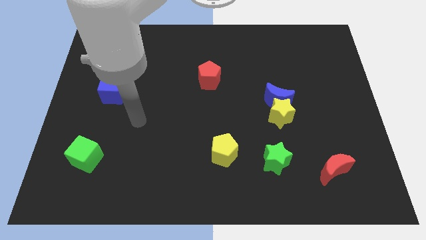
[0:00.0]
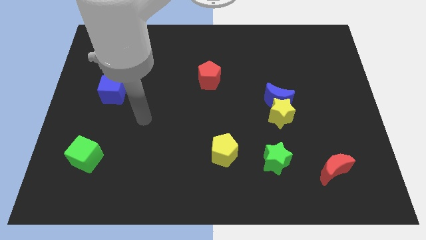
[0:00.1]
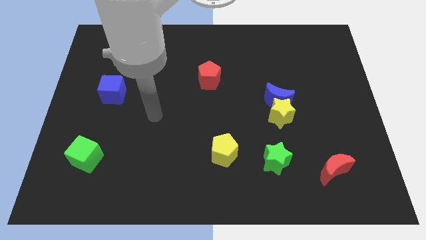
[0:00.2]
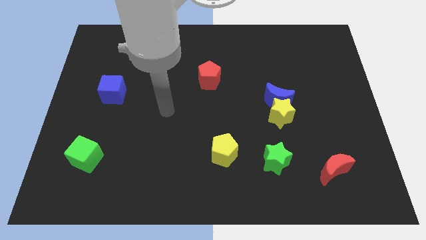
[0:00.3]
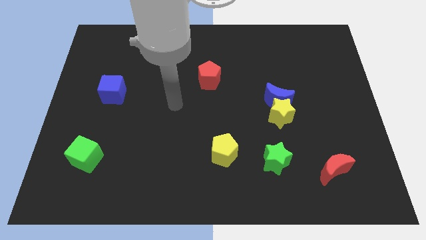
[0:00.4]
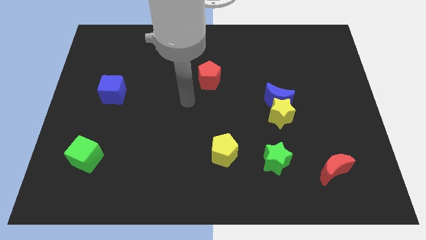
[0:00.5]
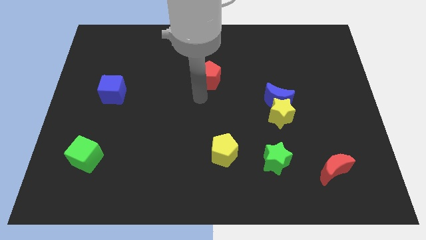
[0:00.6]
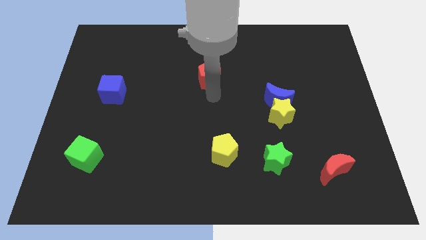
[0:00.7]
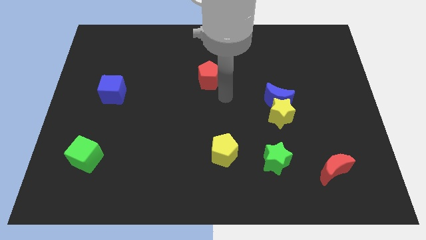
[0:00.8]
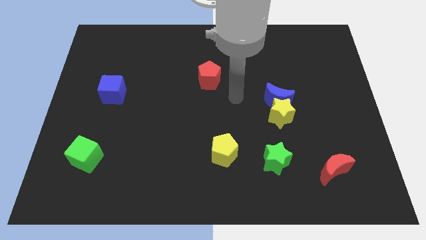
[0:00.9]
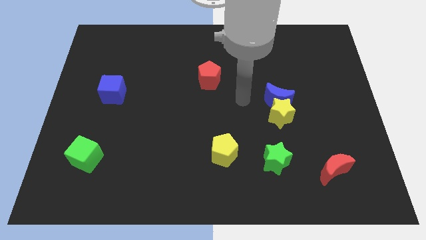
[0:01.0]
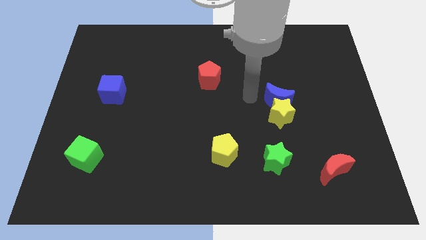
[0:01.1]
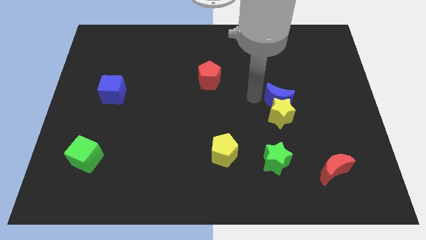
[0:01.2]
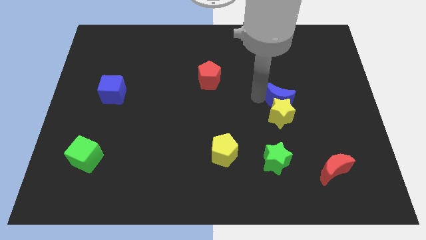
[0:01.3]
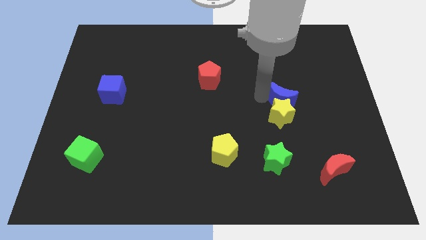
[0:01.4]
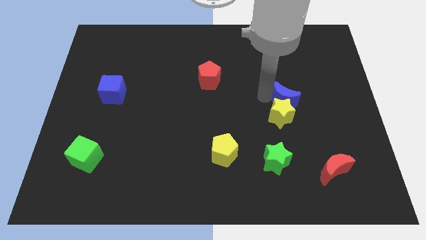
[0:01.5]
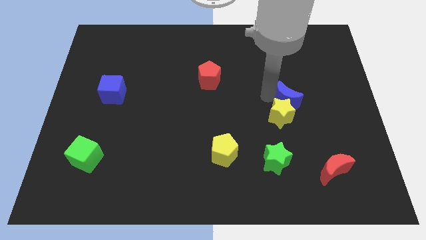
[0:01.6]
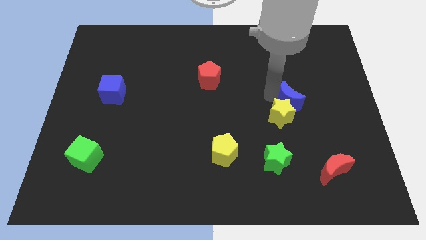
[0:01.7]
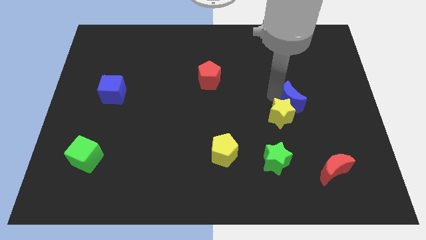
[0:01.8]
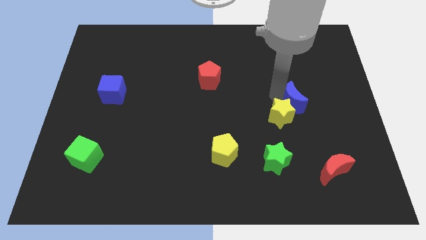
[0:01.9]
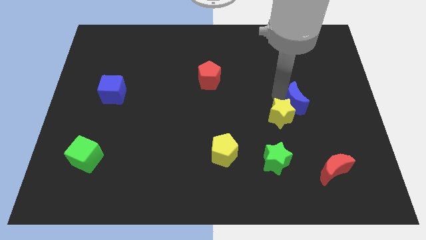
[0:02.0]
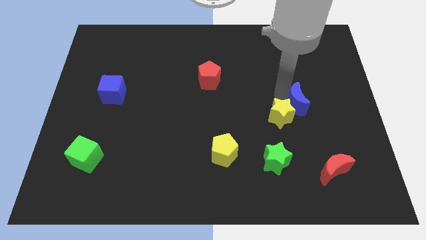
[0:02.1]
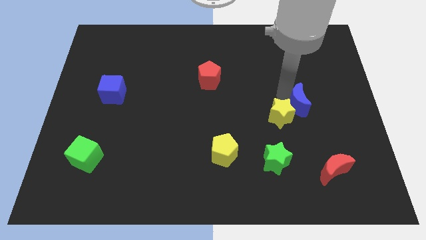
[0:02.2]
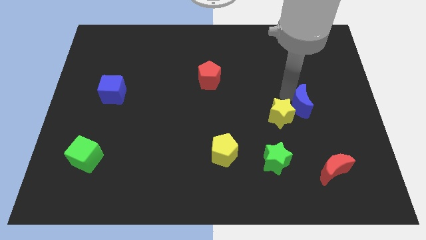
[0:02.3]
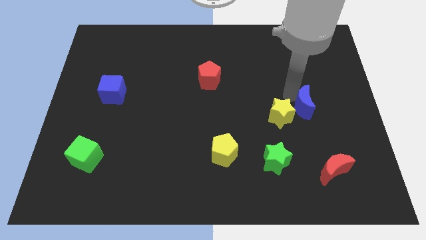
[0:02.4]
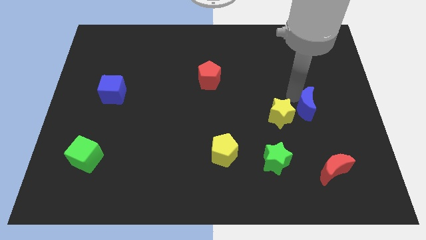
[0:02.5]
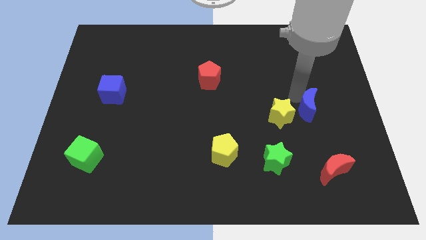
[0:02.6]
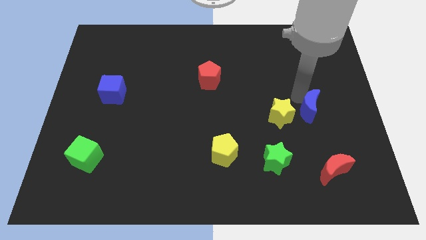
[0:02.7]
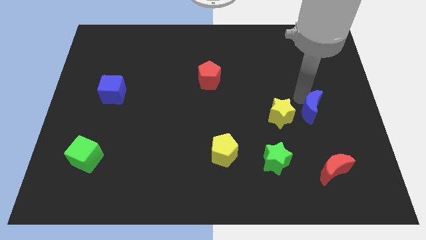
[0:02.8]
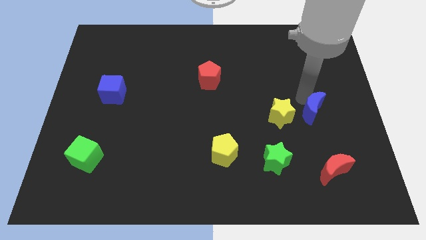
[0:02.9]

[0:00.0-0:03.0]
slightly slide the blue moon diagonally down and right

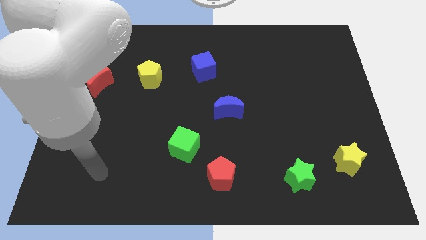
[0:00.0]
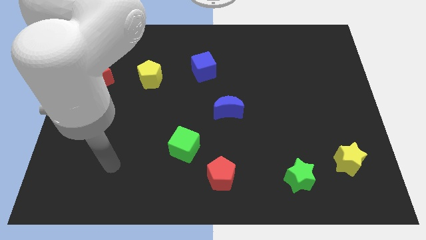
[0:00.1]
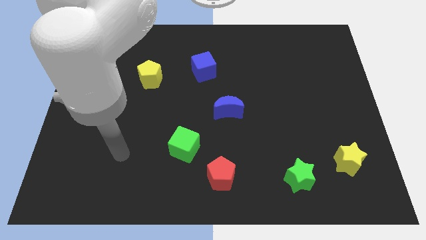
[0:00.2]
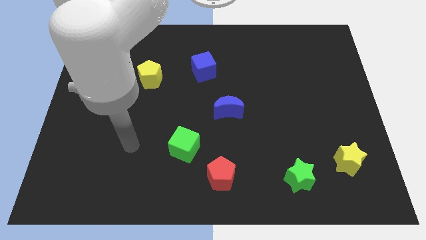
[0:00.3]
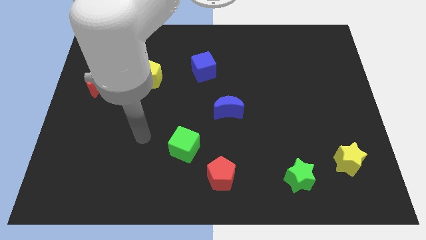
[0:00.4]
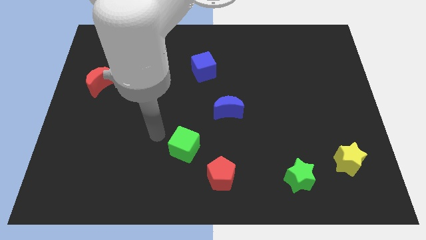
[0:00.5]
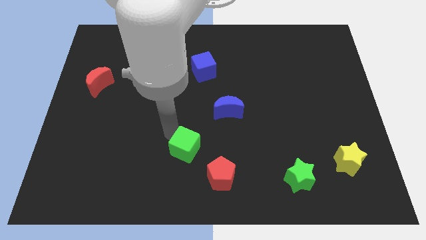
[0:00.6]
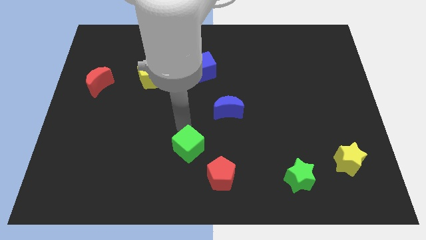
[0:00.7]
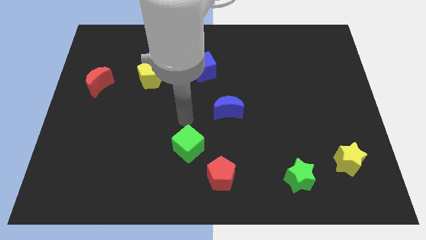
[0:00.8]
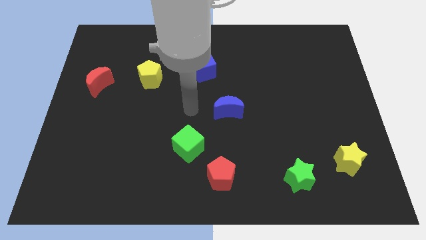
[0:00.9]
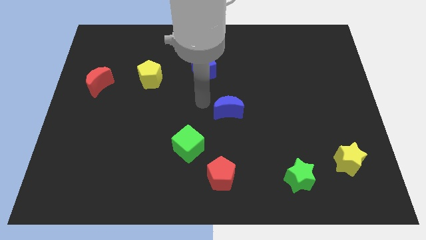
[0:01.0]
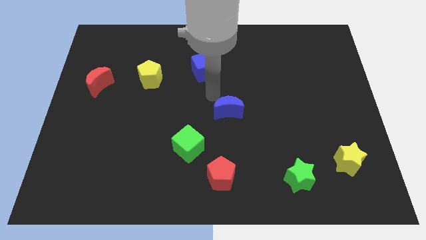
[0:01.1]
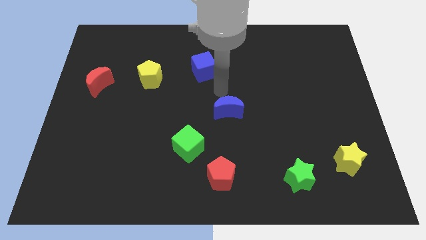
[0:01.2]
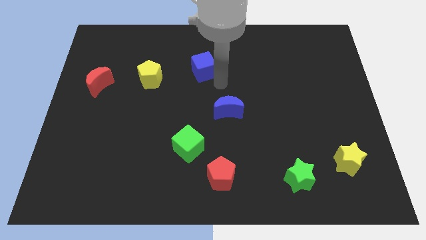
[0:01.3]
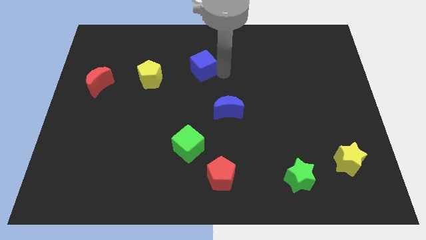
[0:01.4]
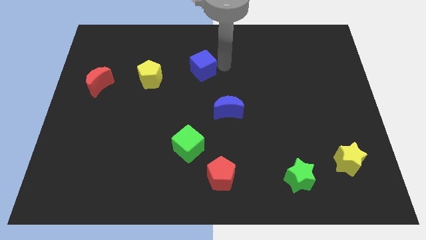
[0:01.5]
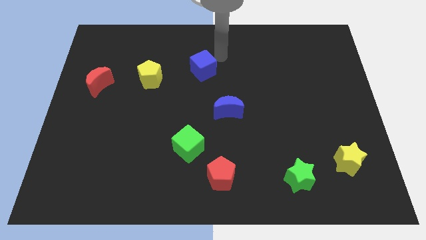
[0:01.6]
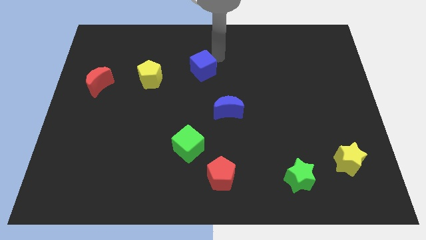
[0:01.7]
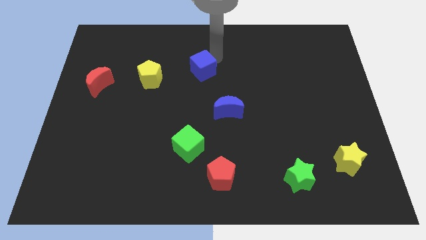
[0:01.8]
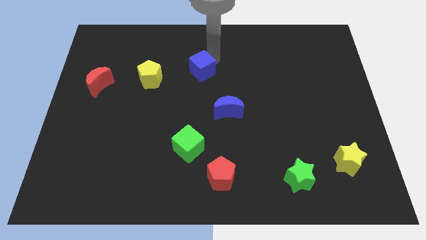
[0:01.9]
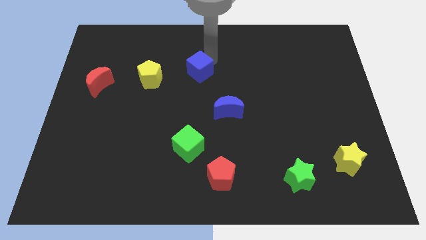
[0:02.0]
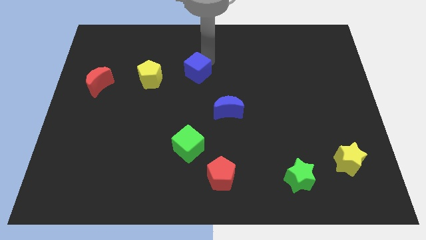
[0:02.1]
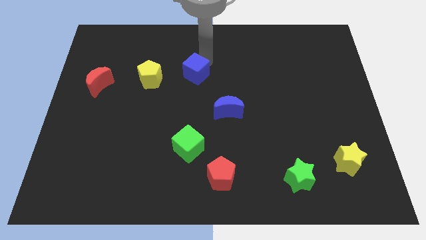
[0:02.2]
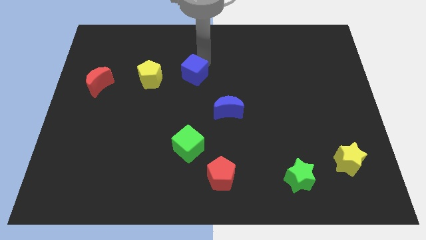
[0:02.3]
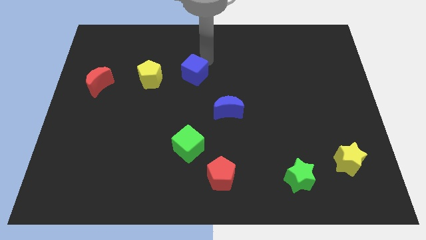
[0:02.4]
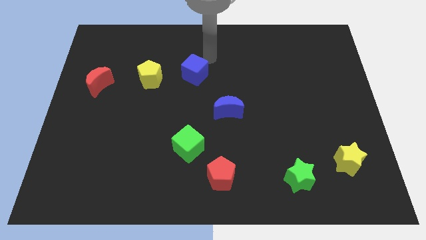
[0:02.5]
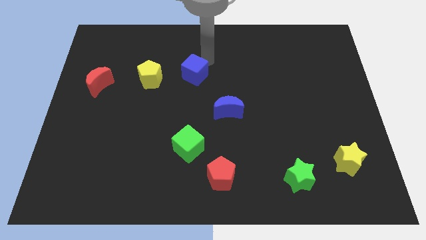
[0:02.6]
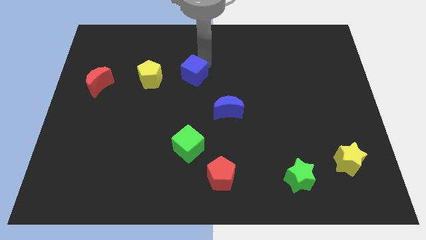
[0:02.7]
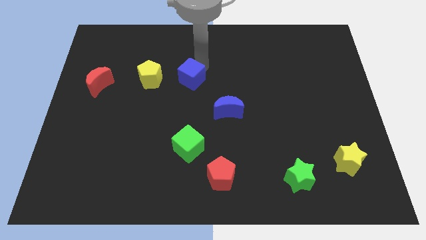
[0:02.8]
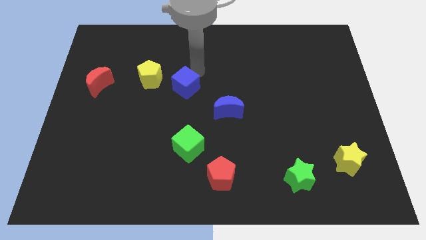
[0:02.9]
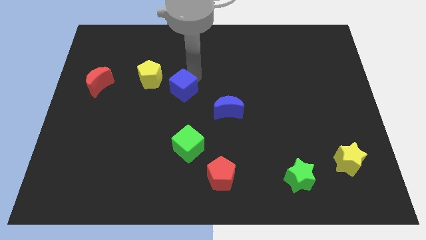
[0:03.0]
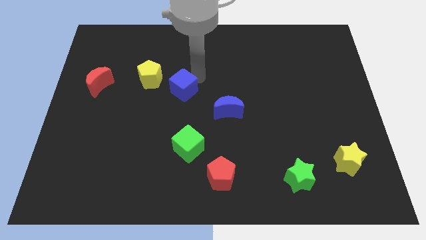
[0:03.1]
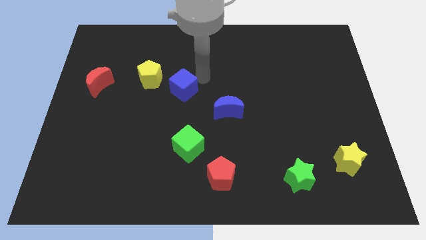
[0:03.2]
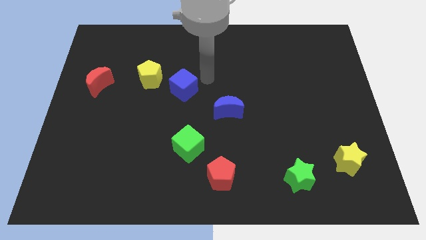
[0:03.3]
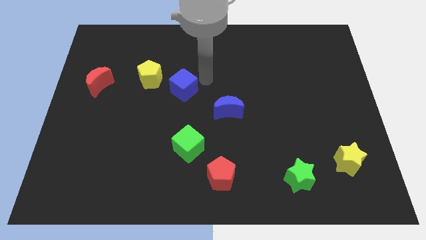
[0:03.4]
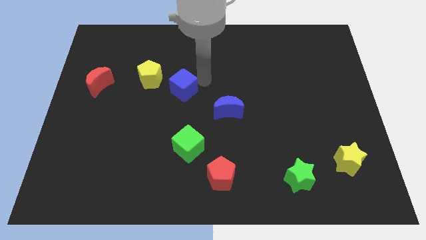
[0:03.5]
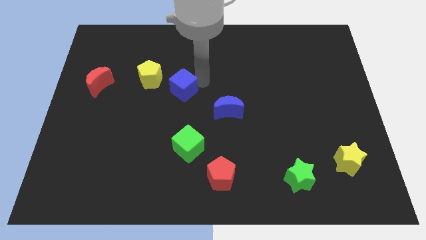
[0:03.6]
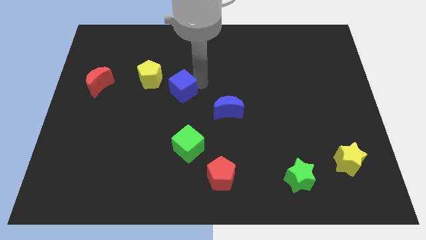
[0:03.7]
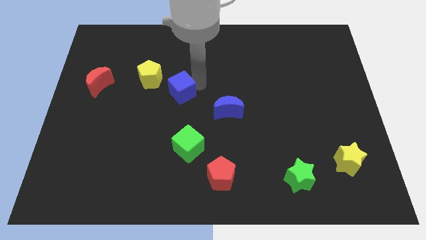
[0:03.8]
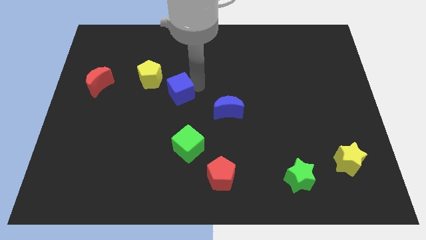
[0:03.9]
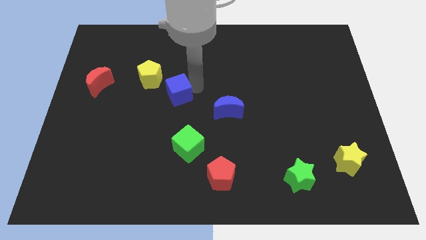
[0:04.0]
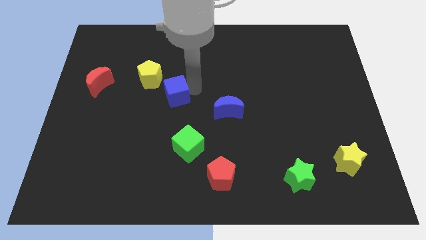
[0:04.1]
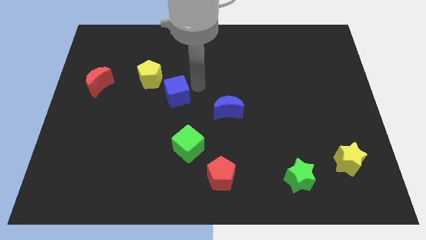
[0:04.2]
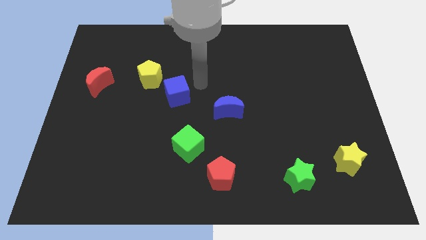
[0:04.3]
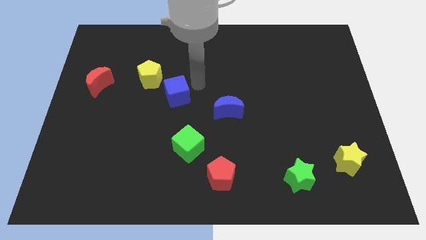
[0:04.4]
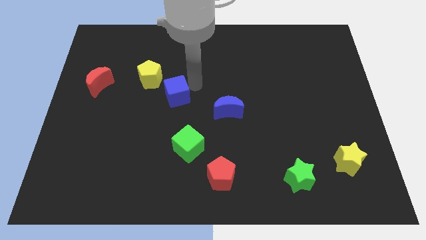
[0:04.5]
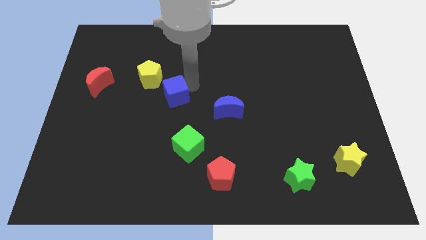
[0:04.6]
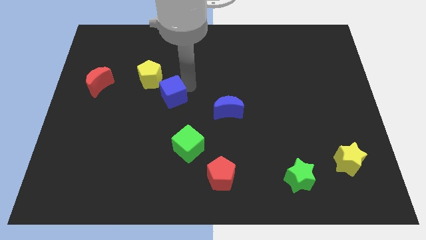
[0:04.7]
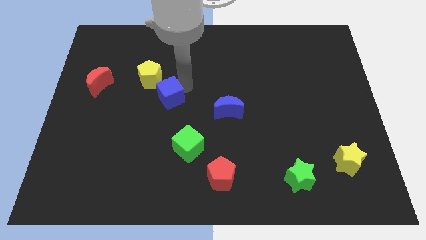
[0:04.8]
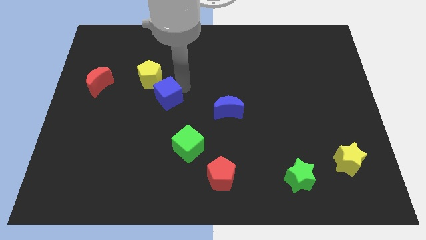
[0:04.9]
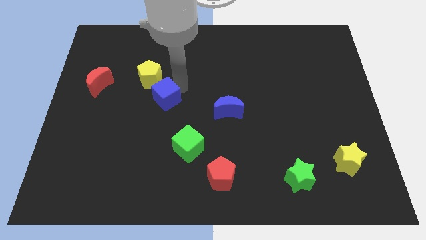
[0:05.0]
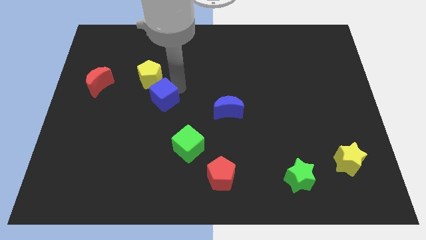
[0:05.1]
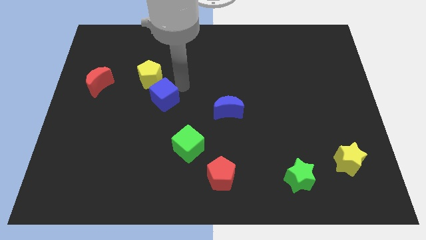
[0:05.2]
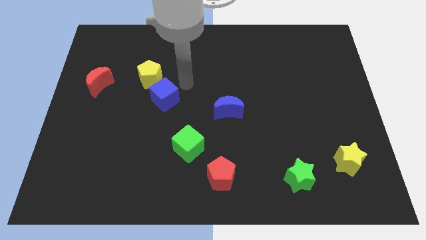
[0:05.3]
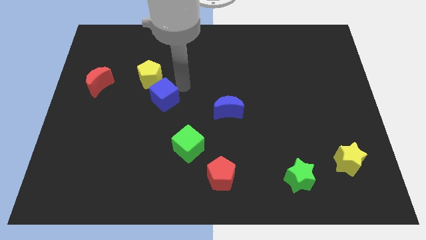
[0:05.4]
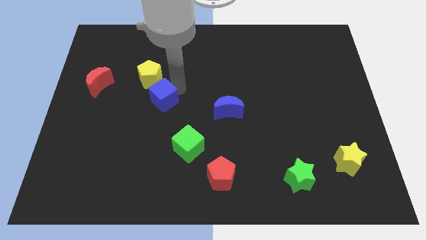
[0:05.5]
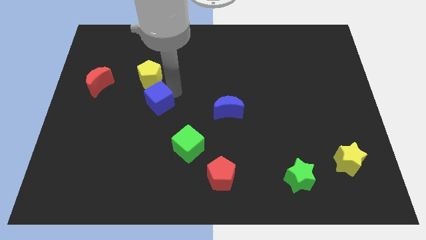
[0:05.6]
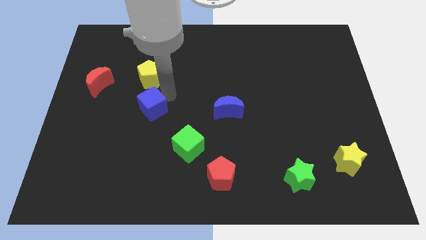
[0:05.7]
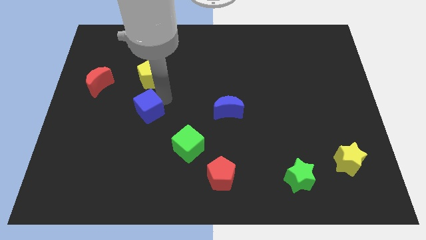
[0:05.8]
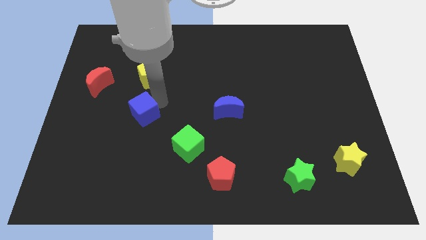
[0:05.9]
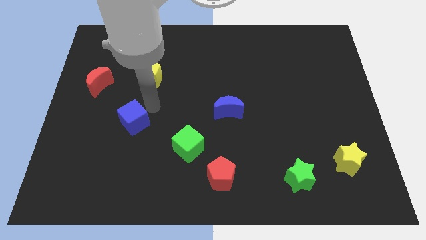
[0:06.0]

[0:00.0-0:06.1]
move the blue cube downwards and to the left
